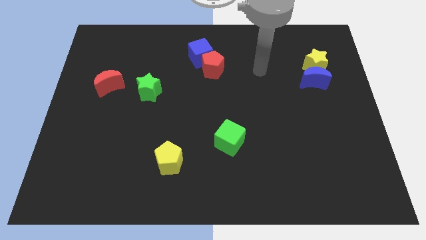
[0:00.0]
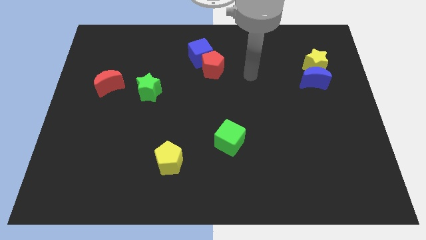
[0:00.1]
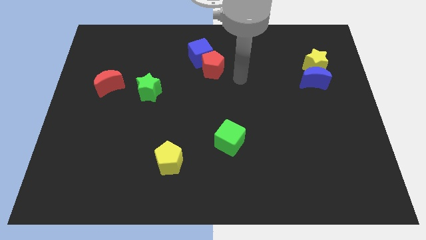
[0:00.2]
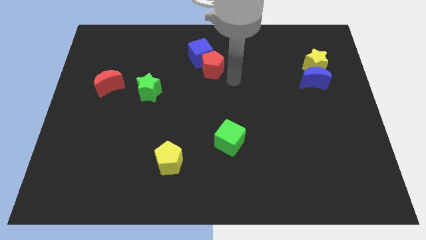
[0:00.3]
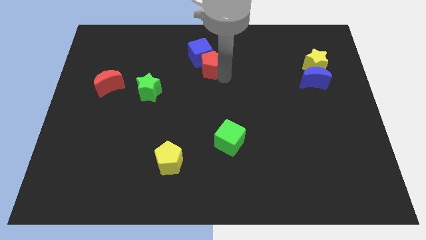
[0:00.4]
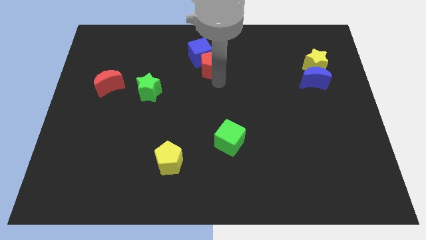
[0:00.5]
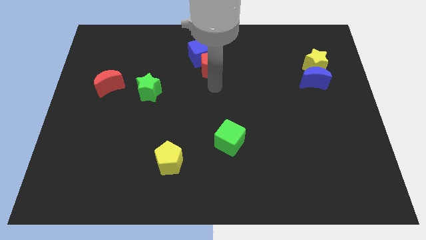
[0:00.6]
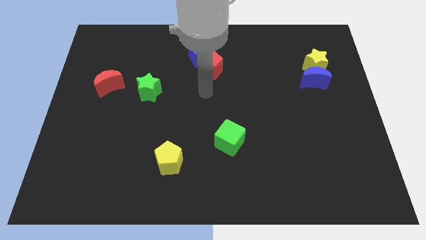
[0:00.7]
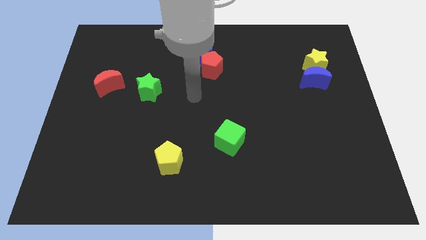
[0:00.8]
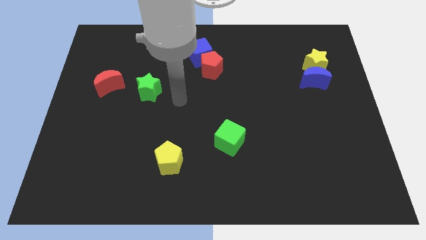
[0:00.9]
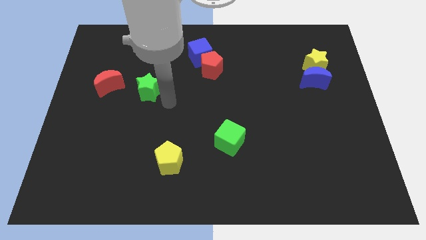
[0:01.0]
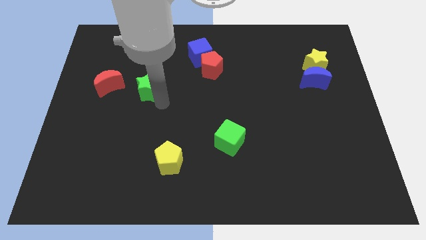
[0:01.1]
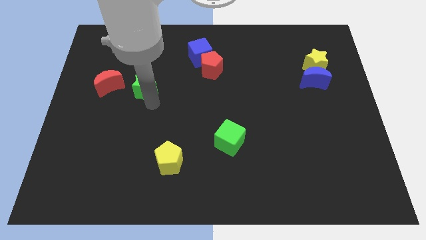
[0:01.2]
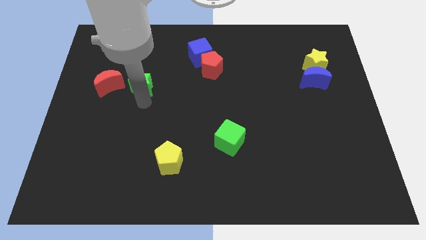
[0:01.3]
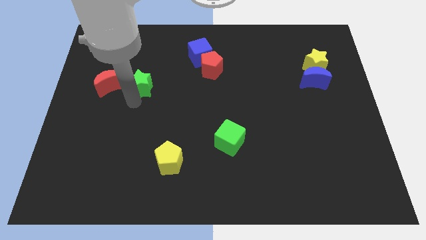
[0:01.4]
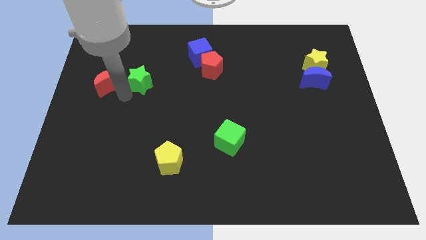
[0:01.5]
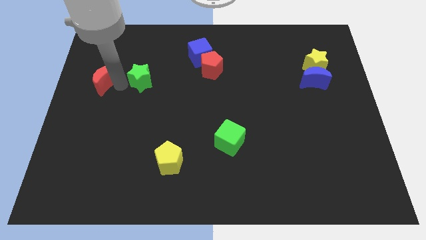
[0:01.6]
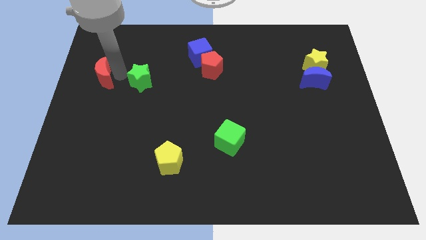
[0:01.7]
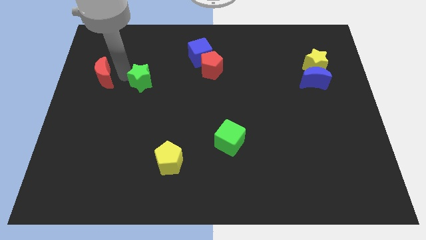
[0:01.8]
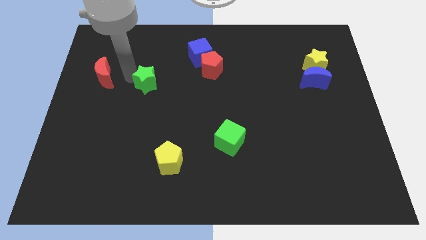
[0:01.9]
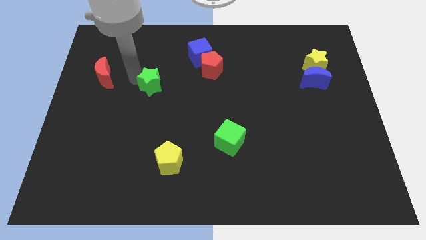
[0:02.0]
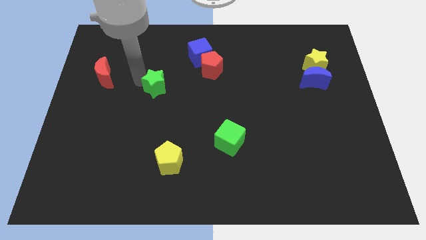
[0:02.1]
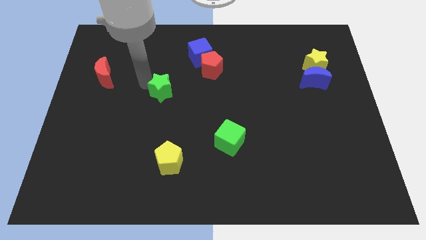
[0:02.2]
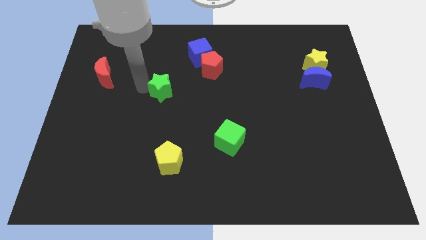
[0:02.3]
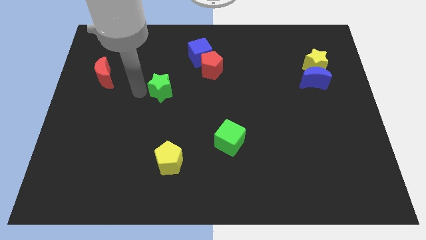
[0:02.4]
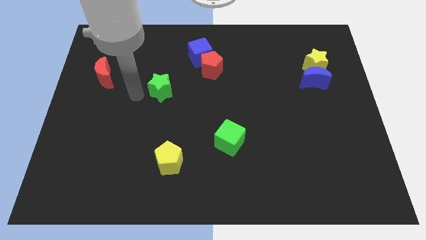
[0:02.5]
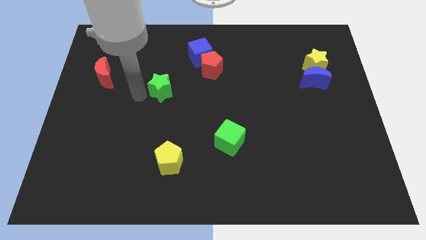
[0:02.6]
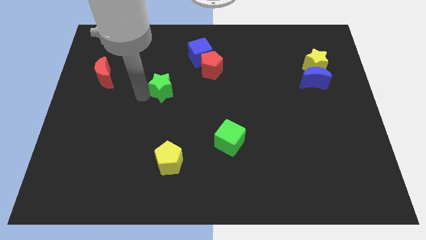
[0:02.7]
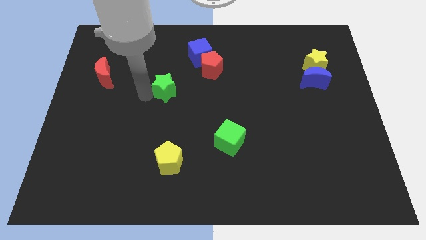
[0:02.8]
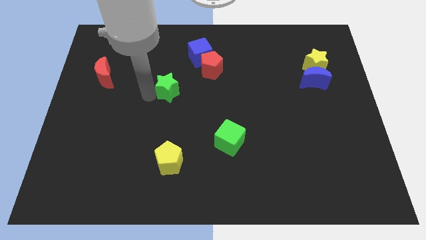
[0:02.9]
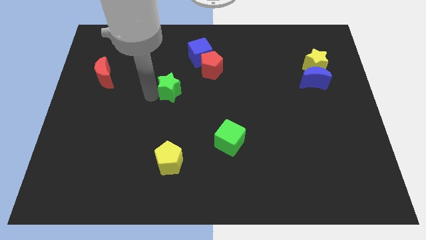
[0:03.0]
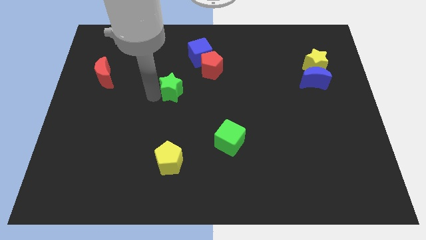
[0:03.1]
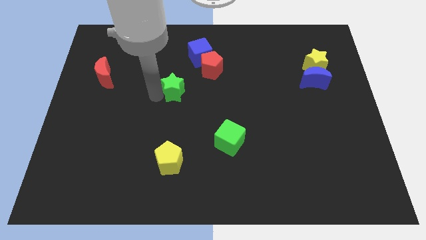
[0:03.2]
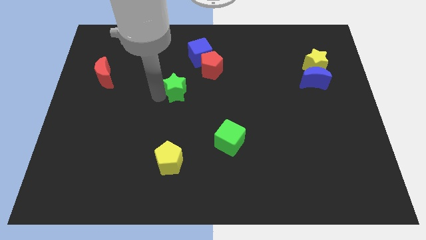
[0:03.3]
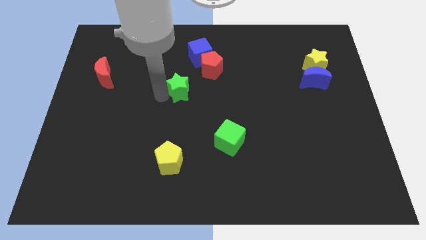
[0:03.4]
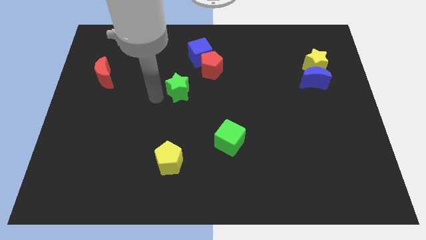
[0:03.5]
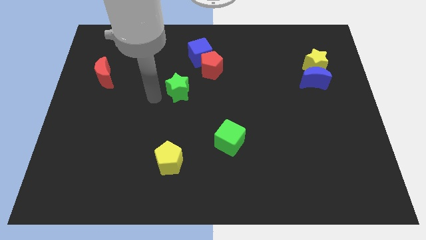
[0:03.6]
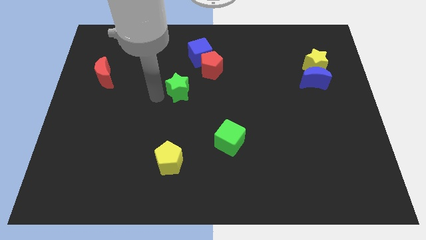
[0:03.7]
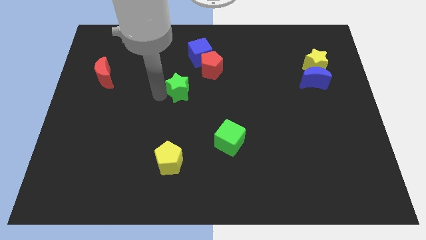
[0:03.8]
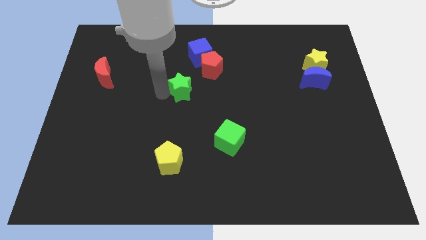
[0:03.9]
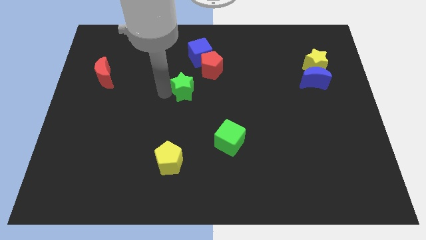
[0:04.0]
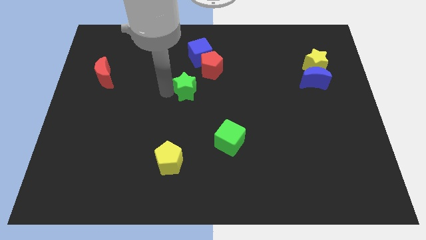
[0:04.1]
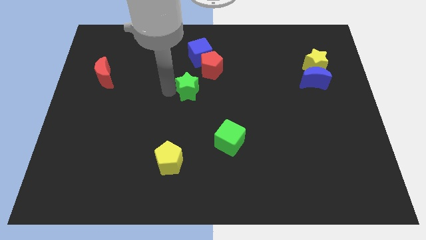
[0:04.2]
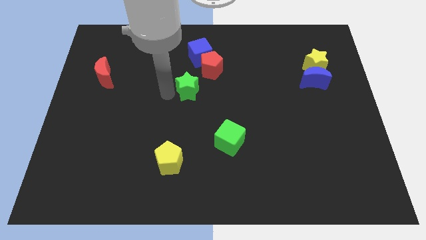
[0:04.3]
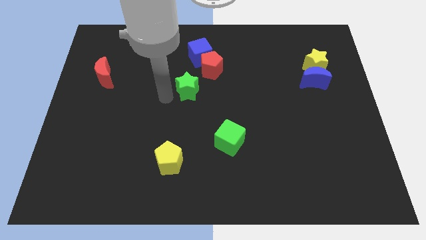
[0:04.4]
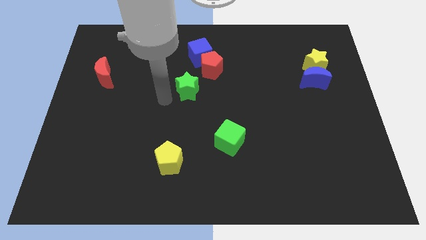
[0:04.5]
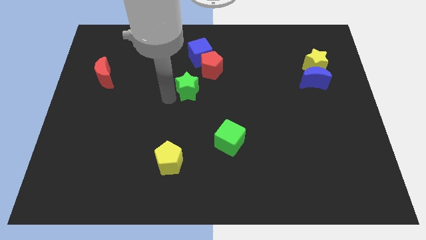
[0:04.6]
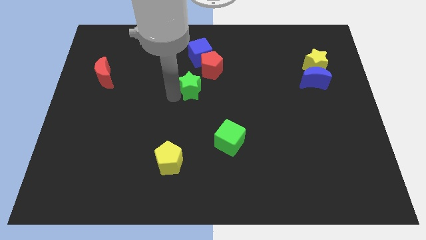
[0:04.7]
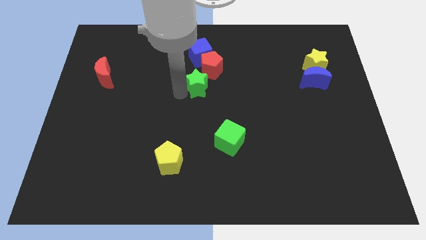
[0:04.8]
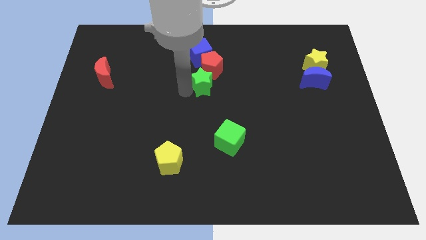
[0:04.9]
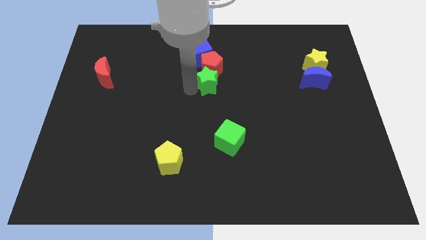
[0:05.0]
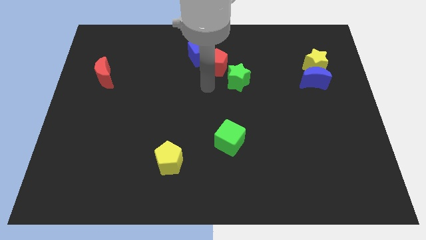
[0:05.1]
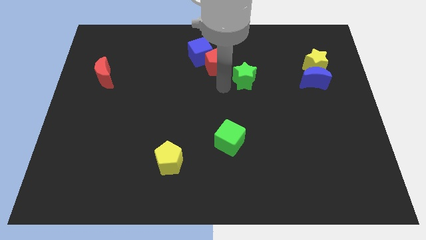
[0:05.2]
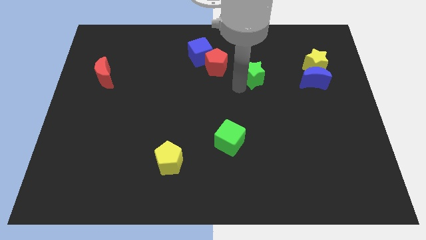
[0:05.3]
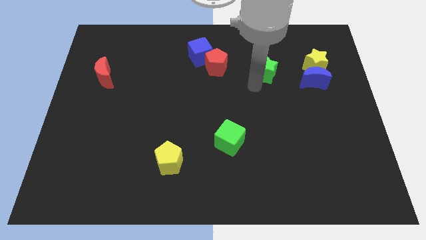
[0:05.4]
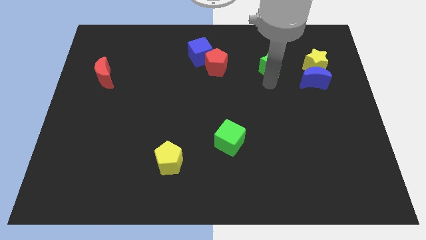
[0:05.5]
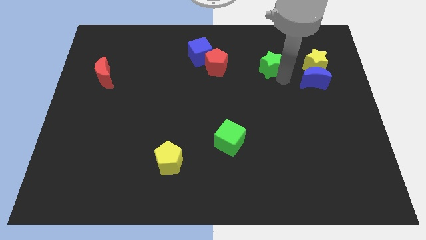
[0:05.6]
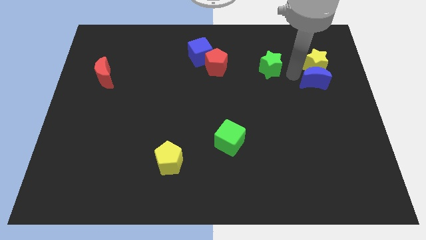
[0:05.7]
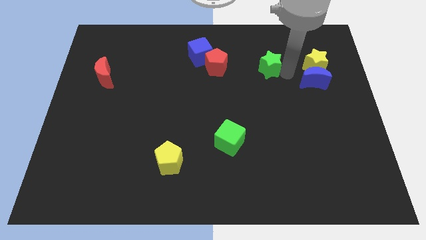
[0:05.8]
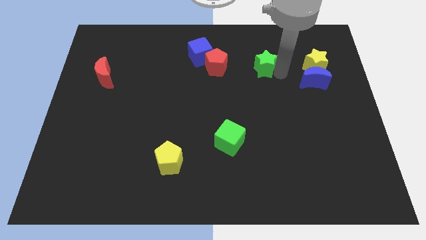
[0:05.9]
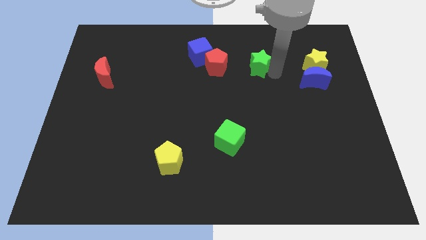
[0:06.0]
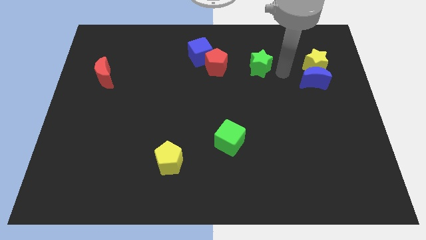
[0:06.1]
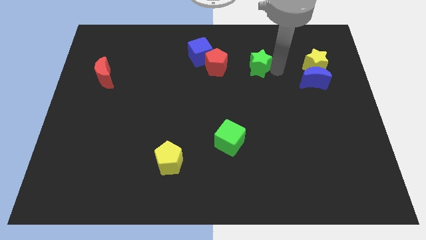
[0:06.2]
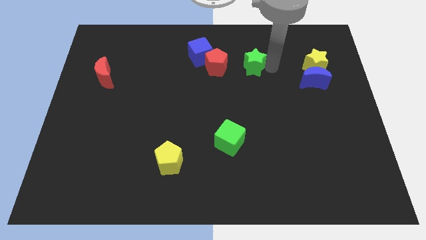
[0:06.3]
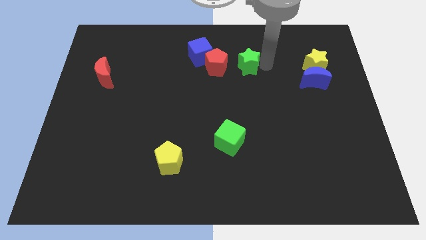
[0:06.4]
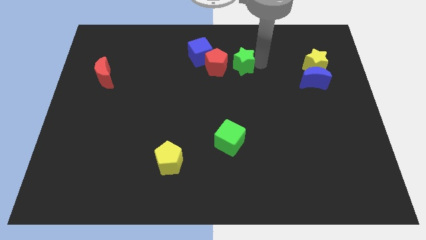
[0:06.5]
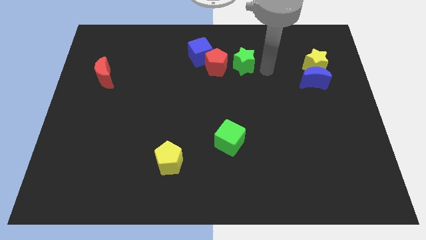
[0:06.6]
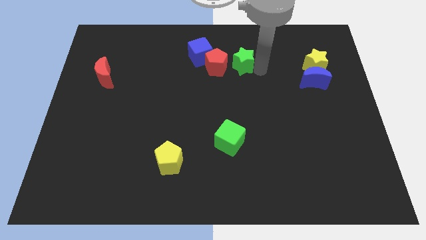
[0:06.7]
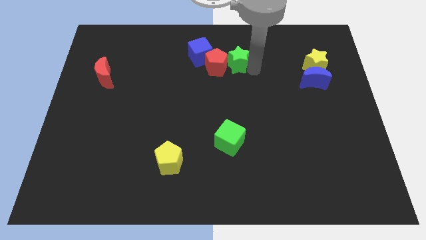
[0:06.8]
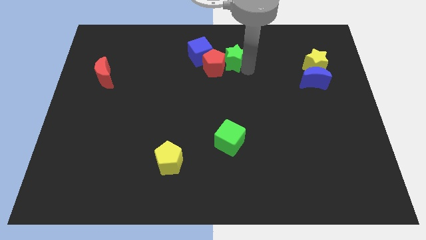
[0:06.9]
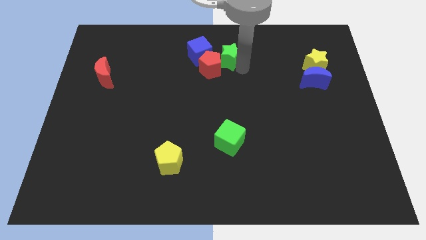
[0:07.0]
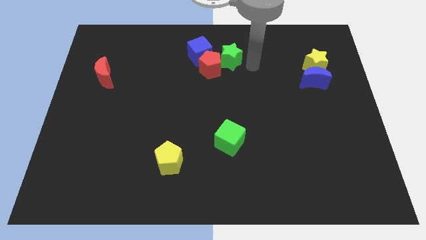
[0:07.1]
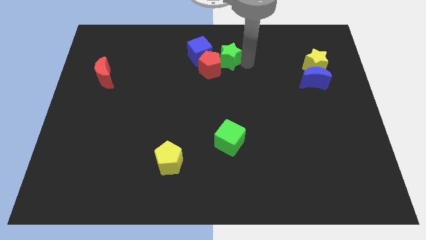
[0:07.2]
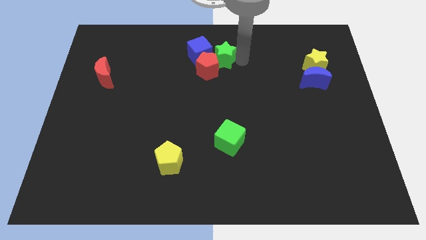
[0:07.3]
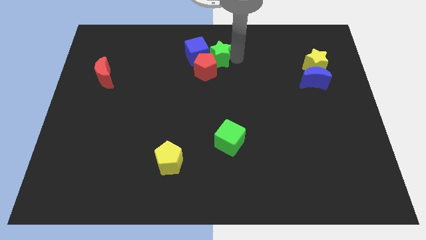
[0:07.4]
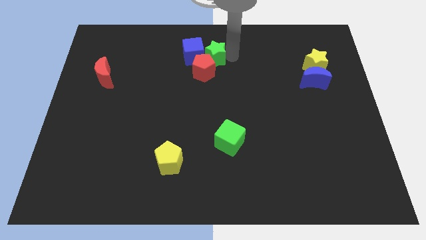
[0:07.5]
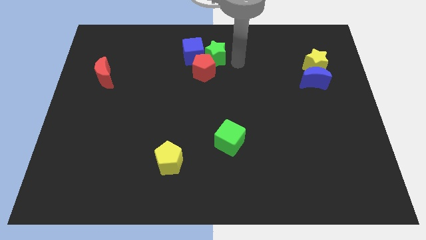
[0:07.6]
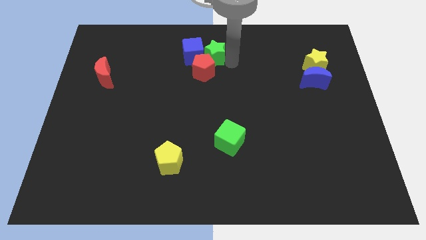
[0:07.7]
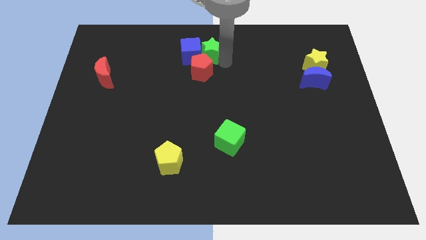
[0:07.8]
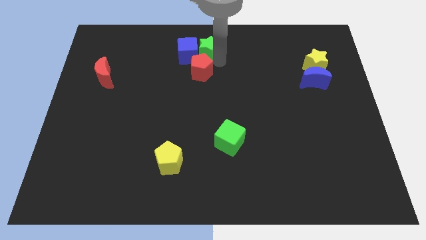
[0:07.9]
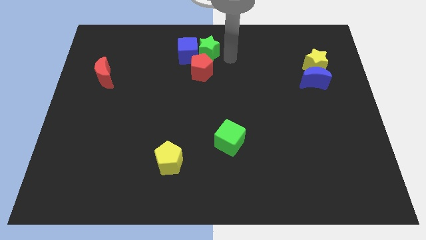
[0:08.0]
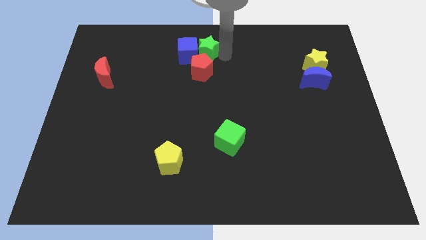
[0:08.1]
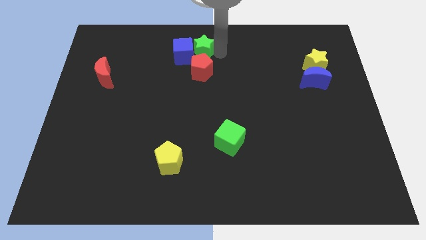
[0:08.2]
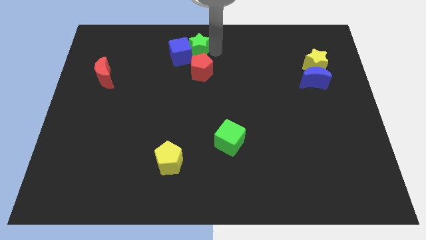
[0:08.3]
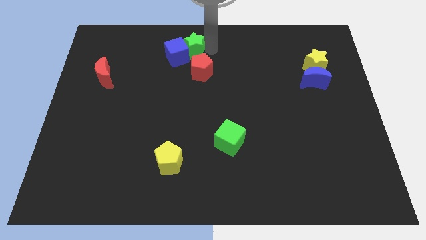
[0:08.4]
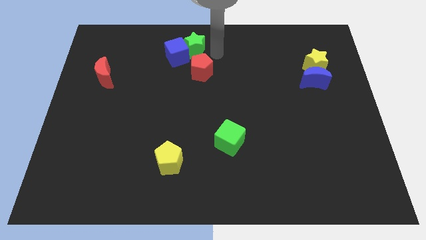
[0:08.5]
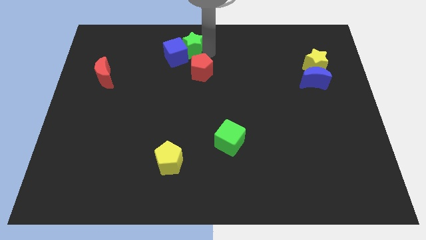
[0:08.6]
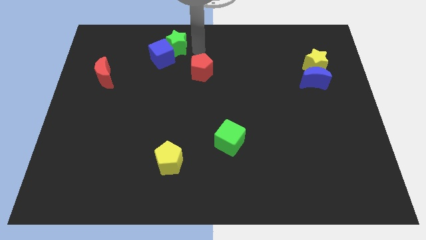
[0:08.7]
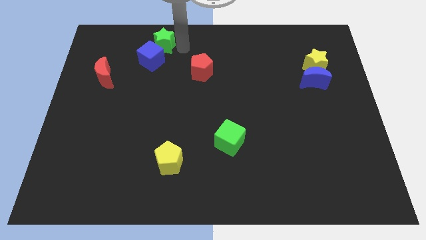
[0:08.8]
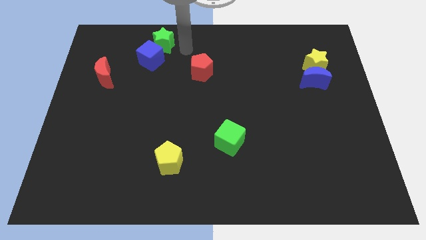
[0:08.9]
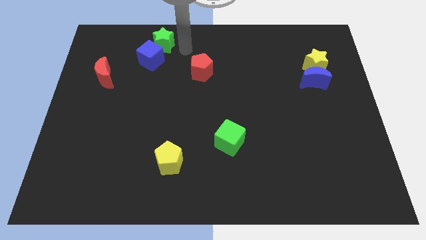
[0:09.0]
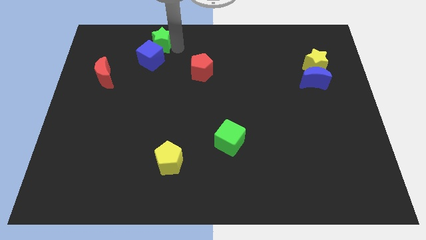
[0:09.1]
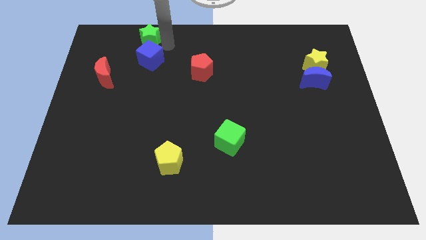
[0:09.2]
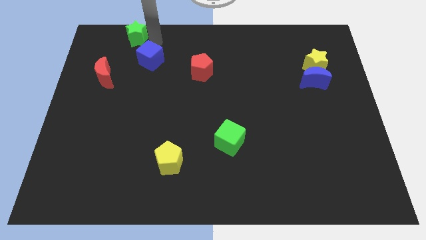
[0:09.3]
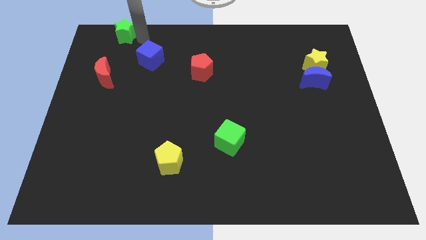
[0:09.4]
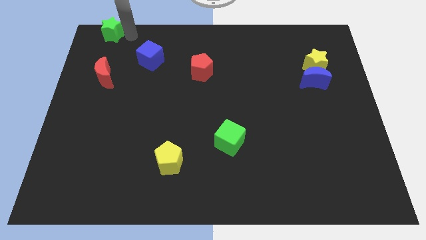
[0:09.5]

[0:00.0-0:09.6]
put the green star to the top left of the board
